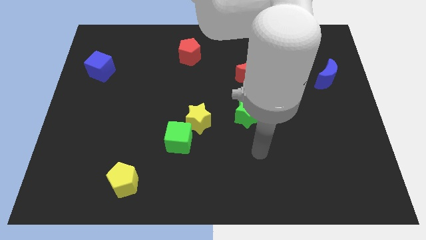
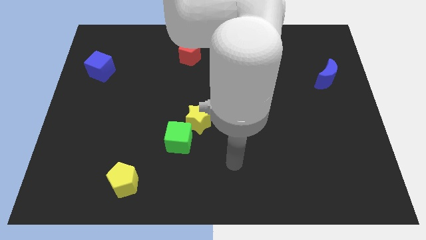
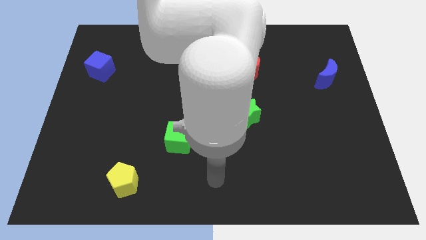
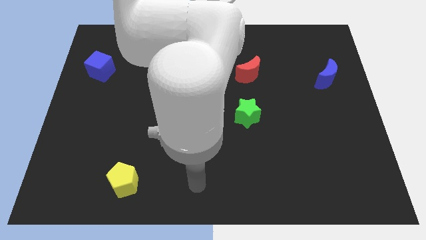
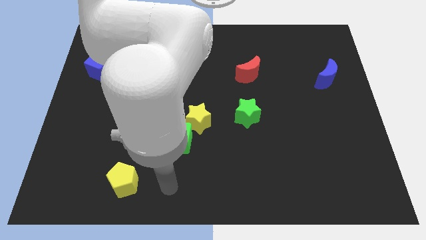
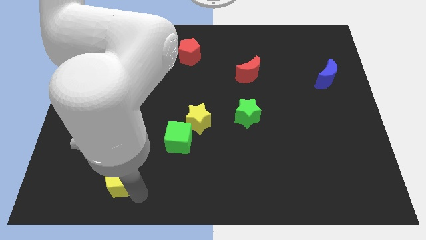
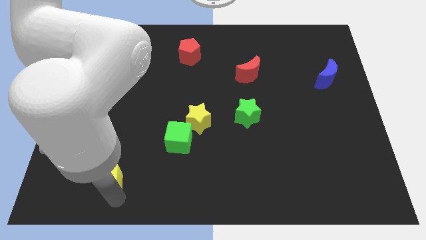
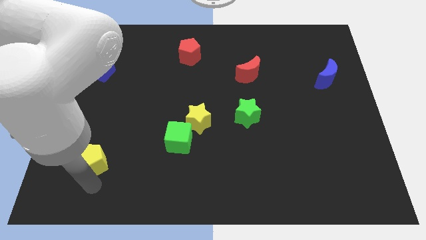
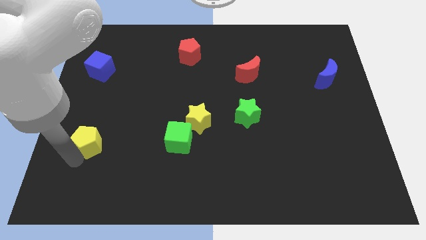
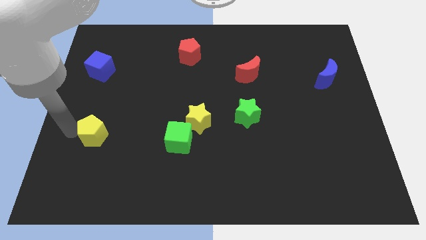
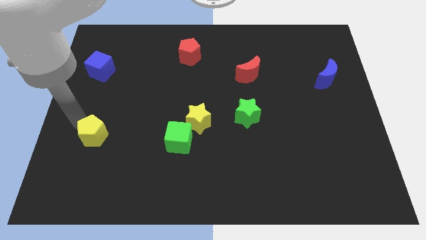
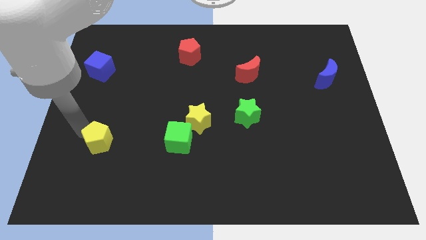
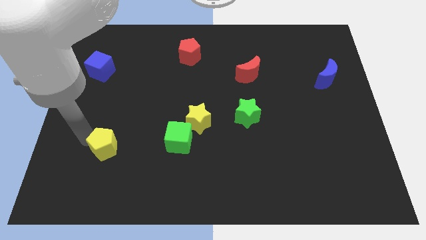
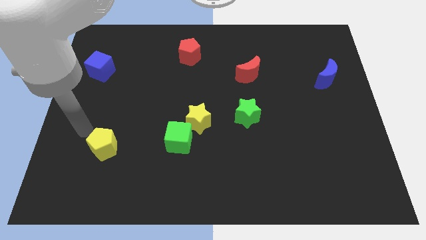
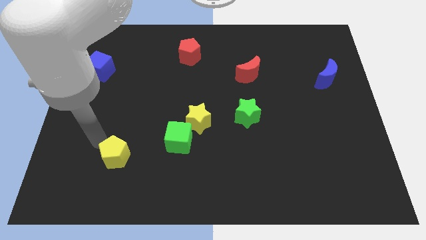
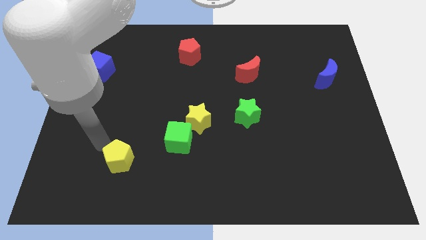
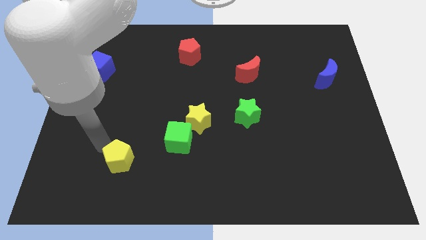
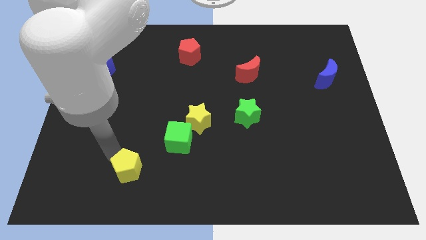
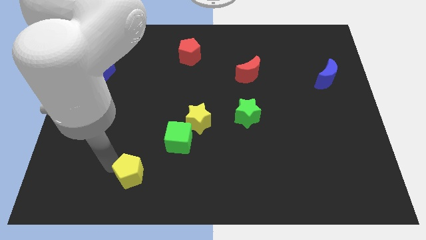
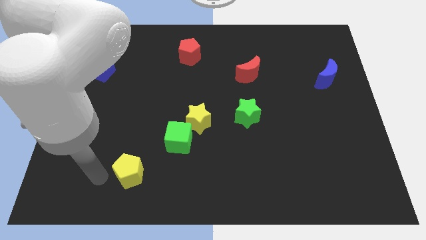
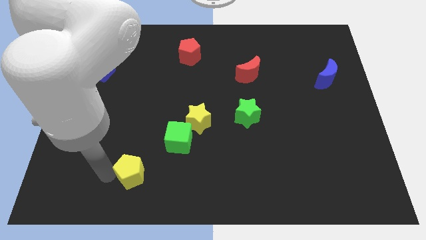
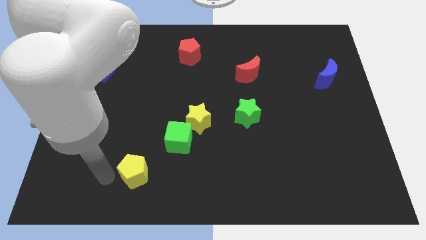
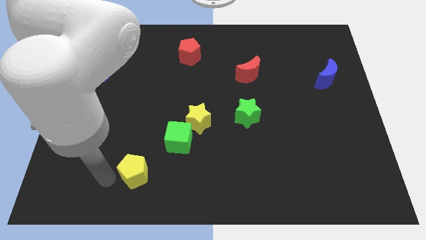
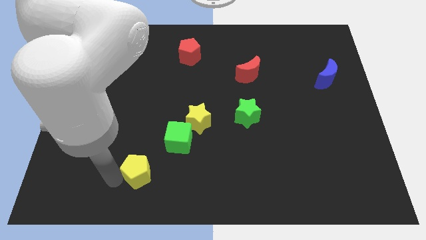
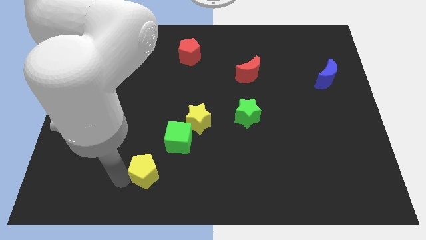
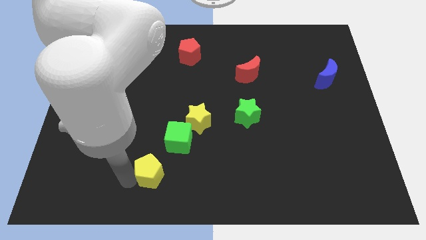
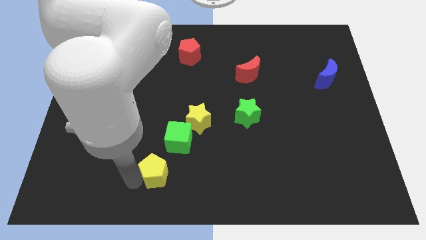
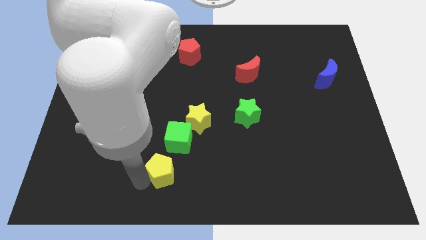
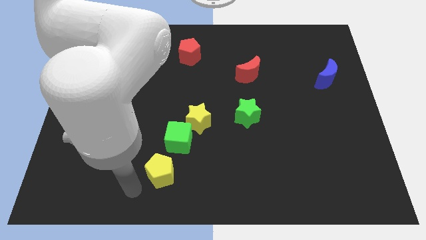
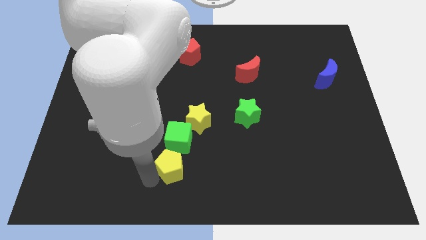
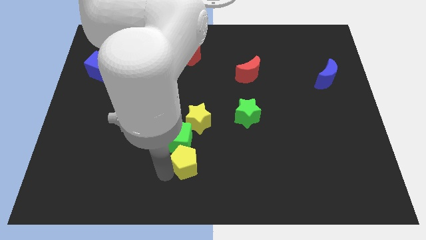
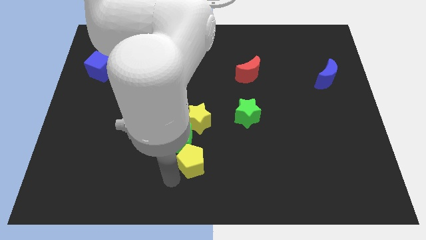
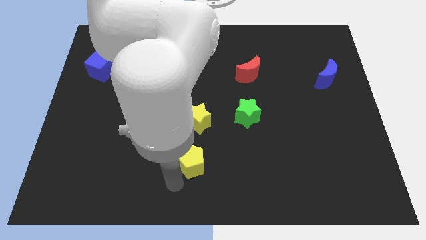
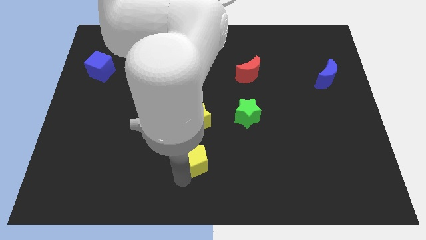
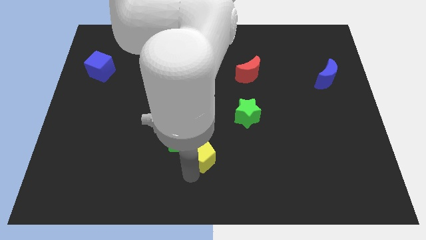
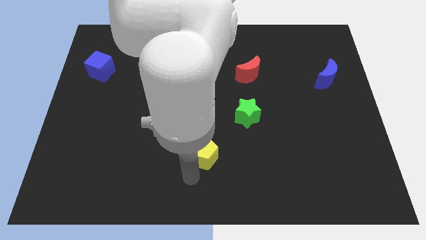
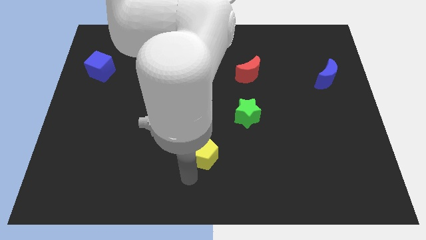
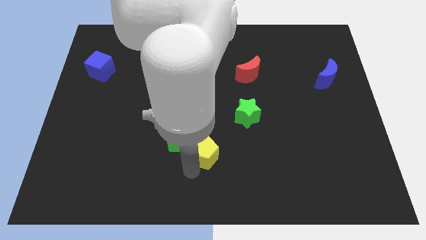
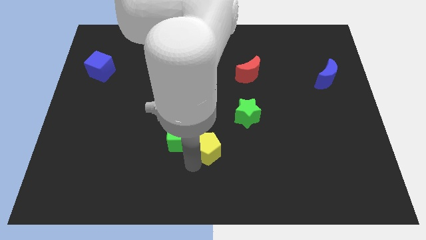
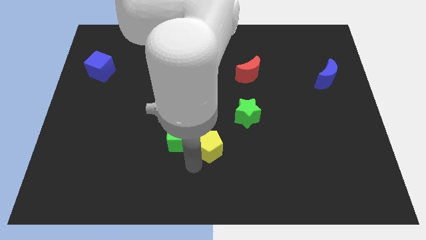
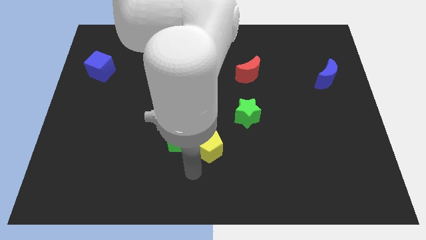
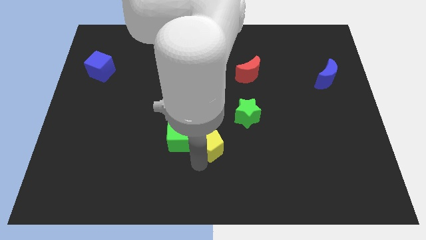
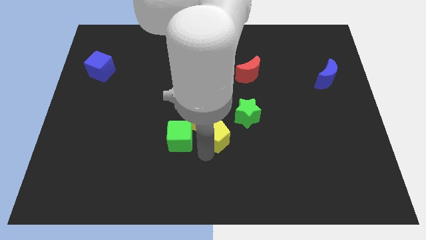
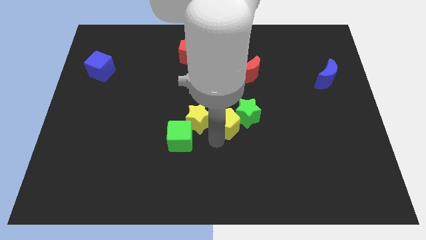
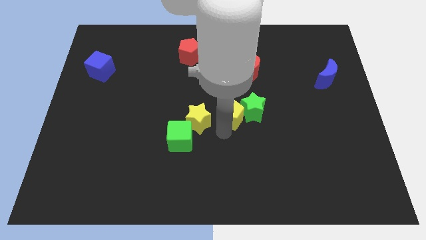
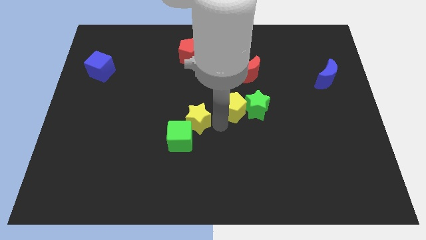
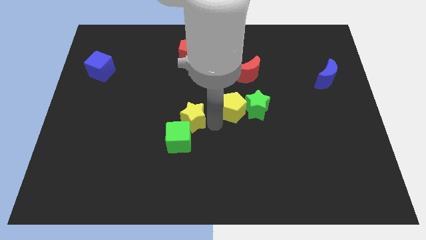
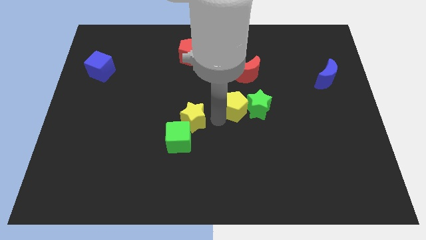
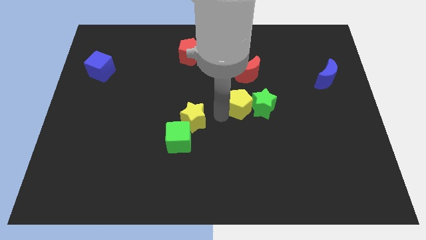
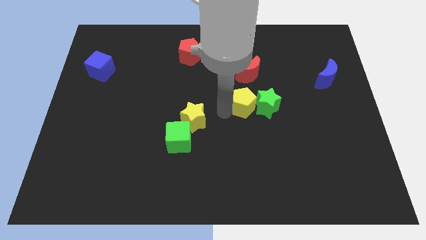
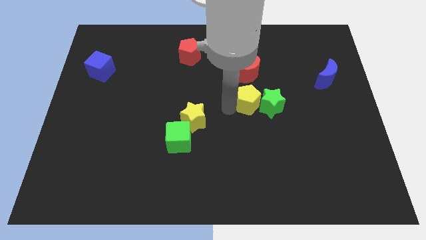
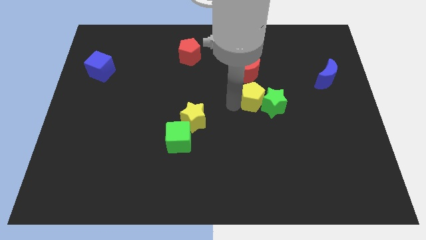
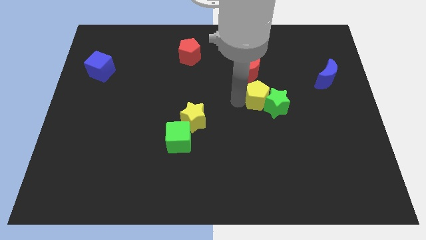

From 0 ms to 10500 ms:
push the yellow pentagon to the bottom right side of the red moon

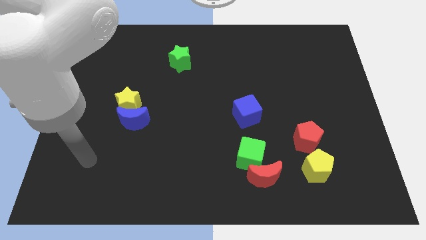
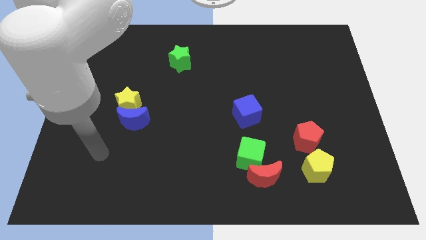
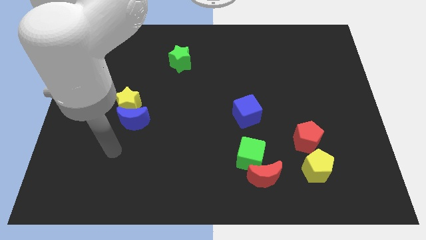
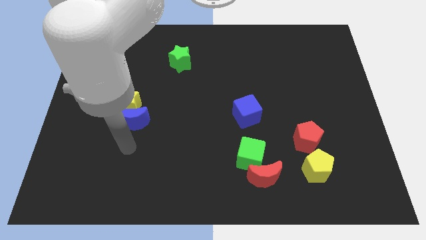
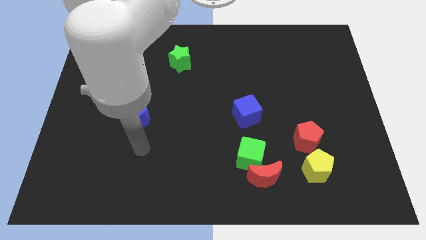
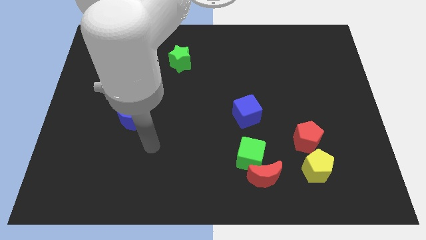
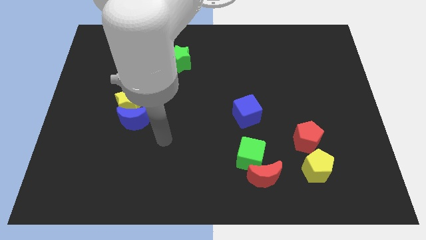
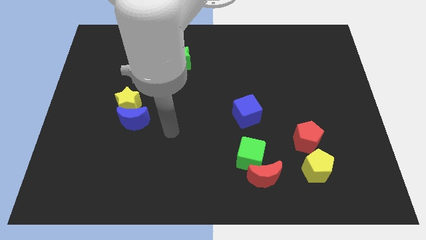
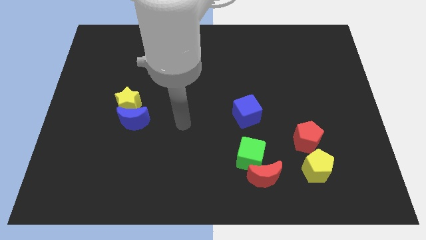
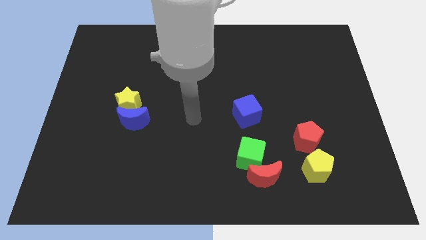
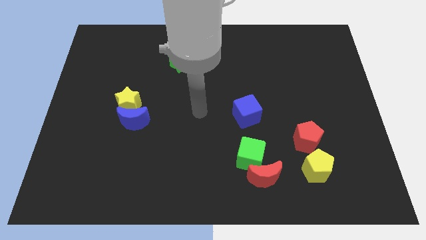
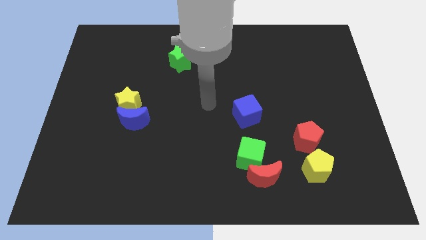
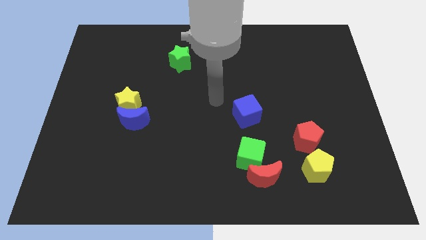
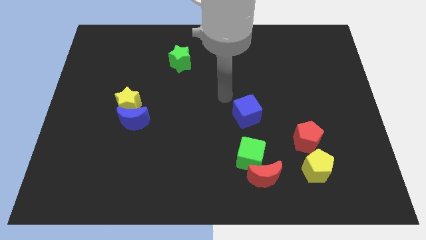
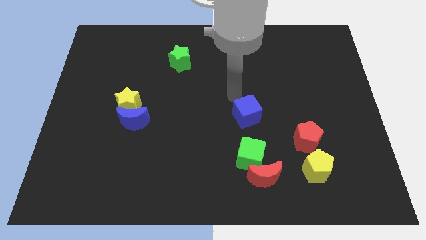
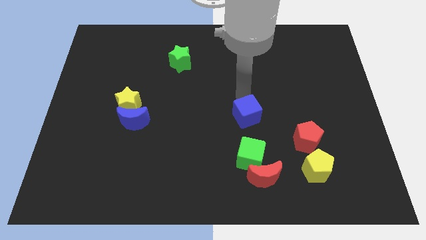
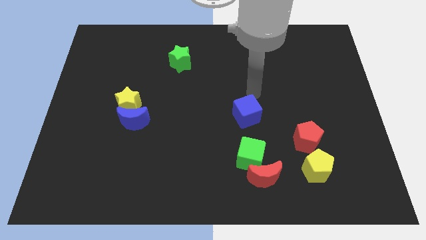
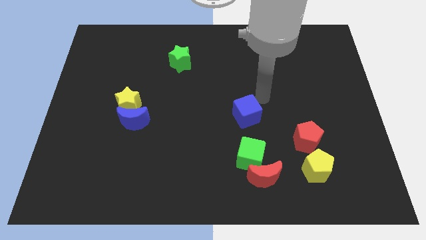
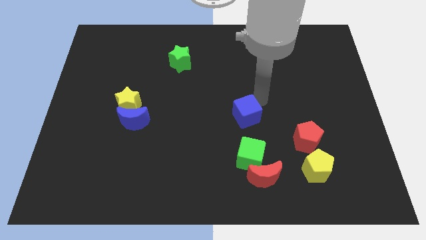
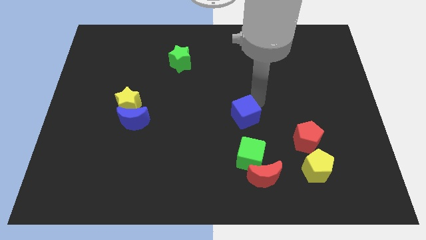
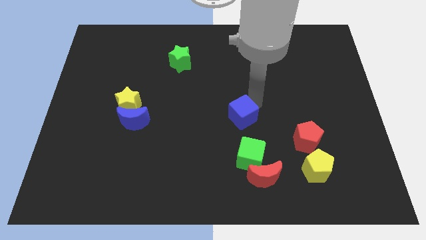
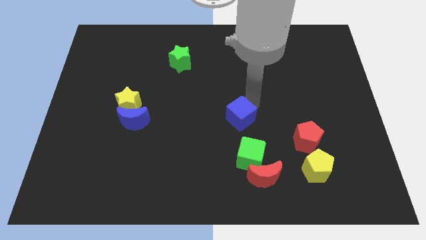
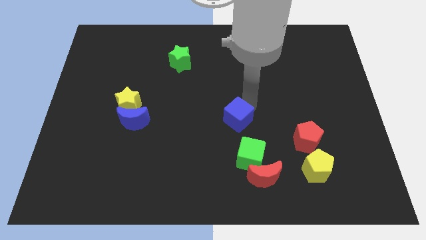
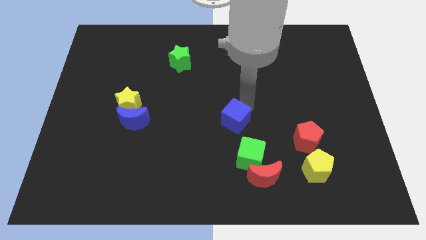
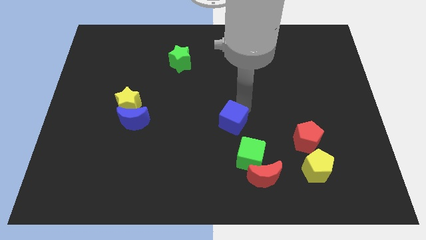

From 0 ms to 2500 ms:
push the blue cube diagonally up and to the left of the green cube
